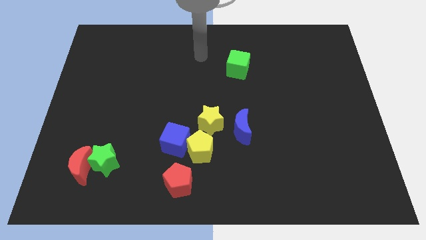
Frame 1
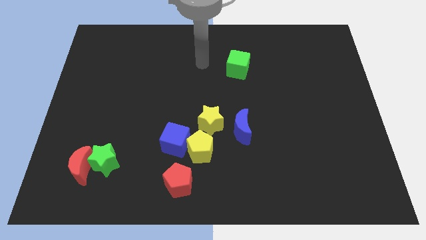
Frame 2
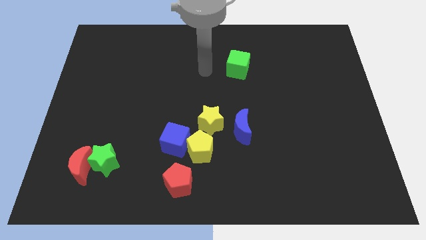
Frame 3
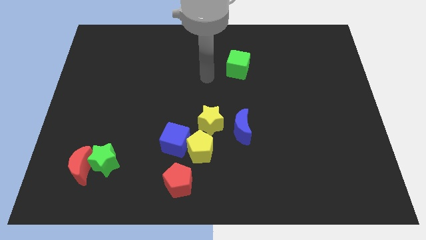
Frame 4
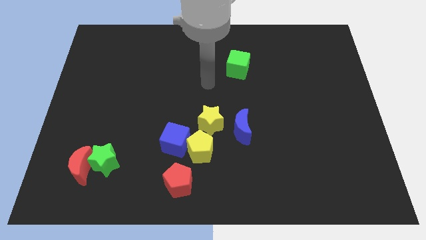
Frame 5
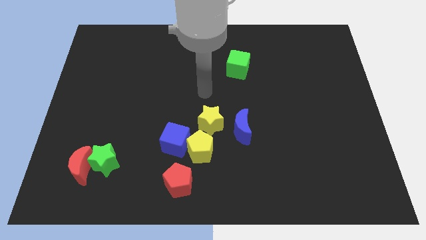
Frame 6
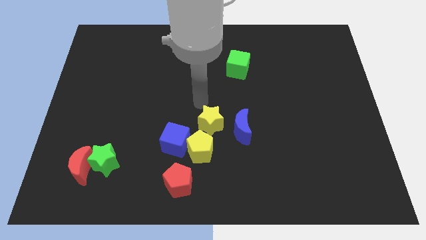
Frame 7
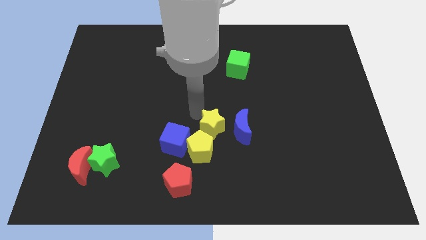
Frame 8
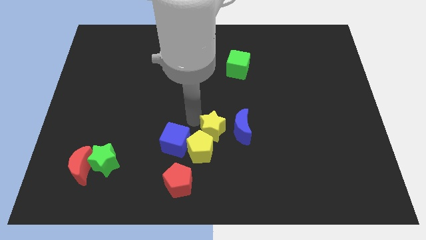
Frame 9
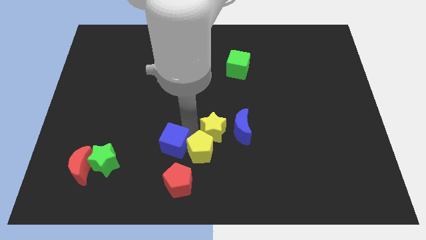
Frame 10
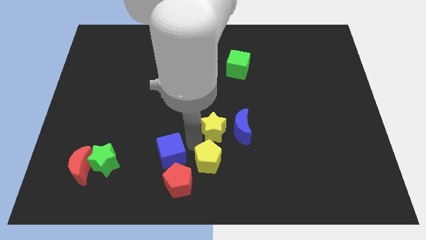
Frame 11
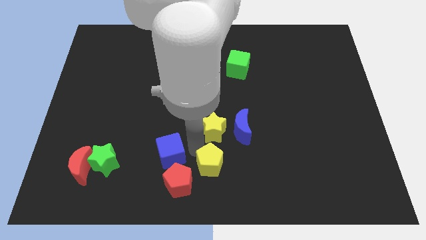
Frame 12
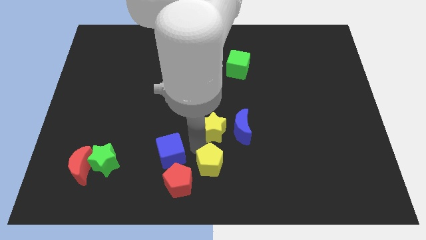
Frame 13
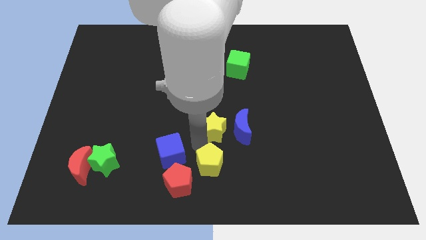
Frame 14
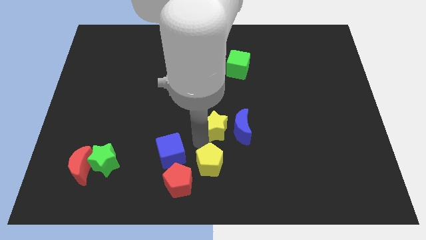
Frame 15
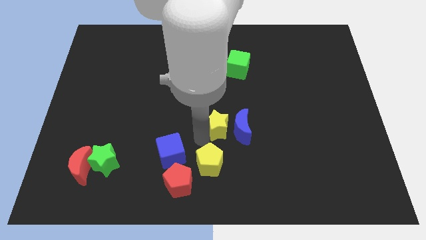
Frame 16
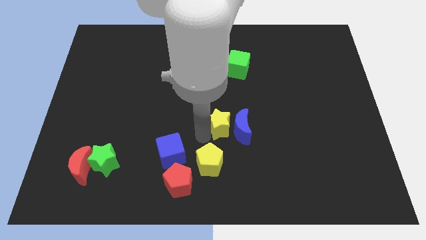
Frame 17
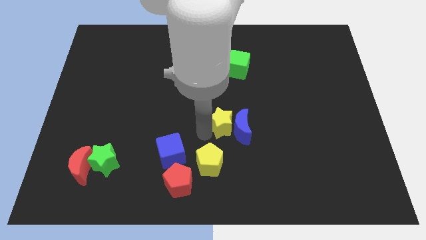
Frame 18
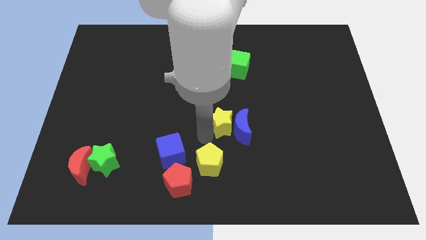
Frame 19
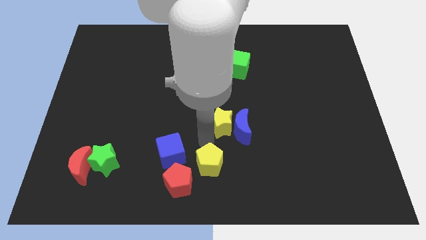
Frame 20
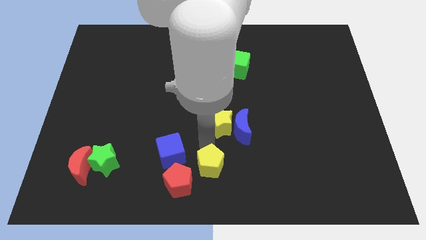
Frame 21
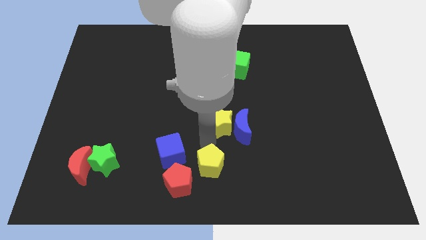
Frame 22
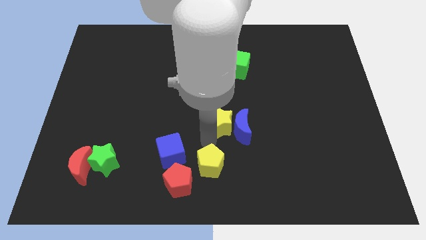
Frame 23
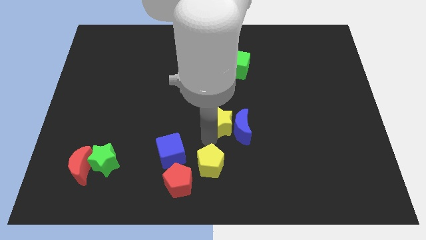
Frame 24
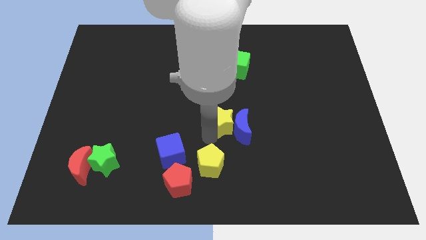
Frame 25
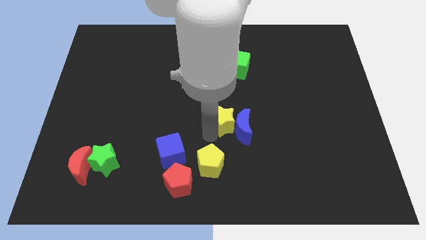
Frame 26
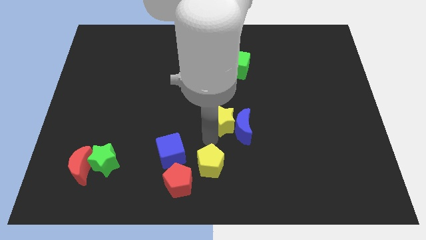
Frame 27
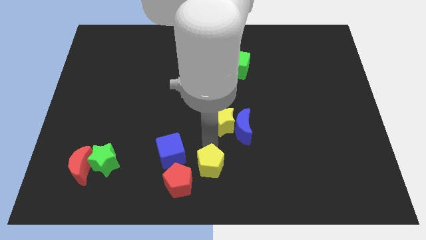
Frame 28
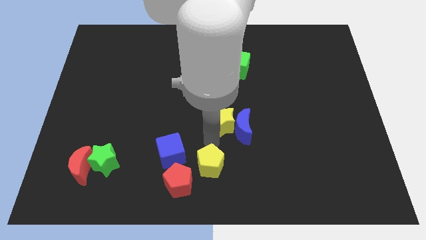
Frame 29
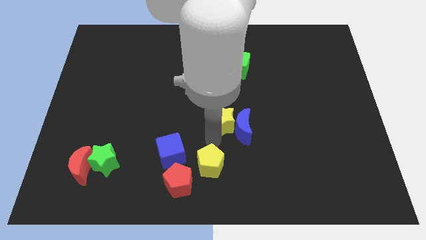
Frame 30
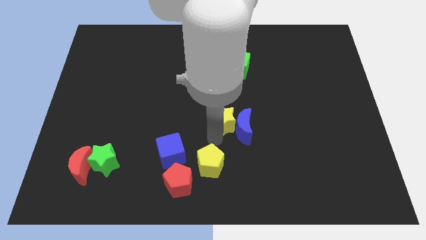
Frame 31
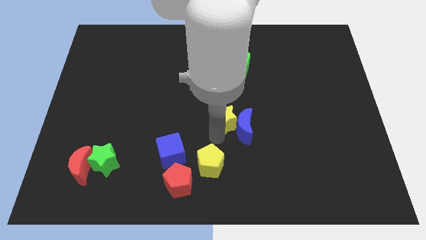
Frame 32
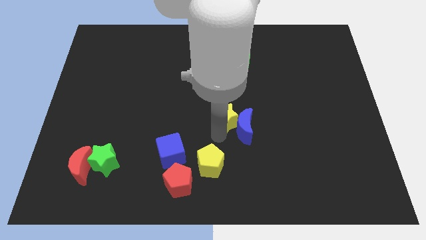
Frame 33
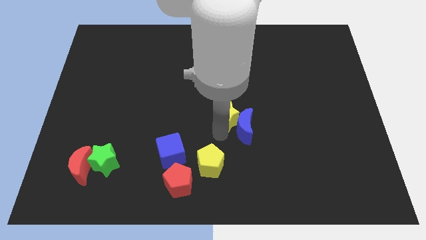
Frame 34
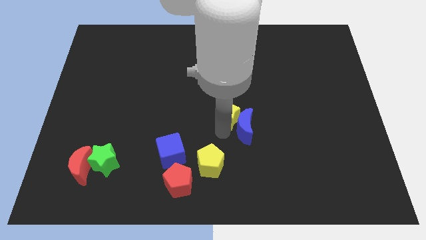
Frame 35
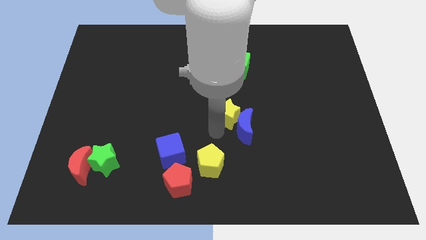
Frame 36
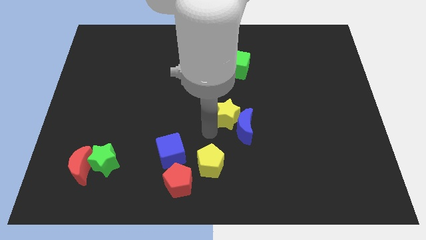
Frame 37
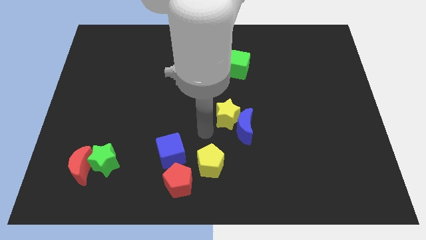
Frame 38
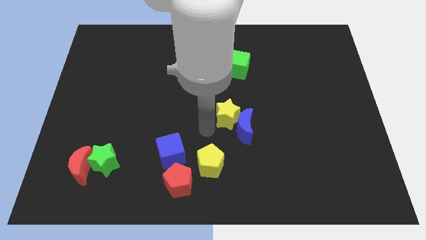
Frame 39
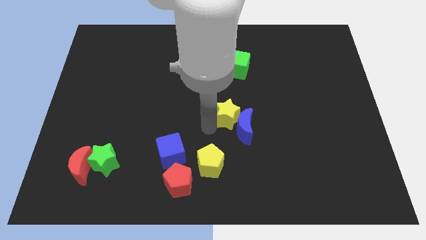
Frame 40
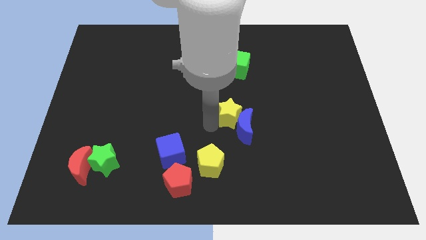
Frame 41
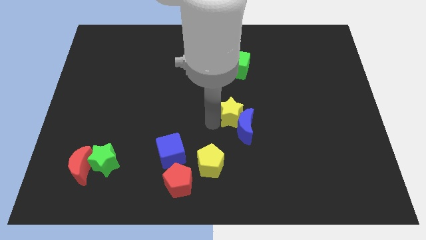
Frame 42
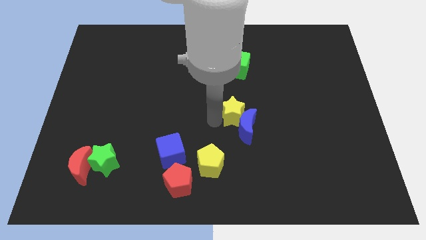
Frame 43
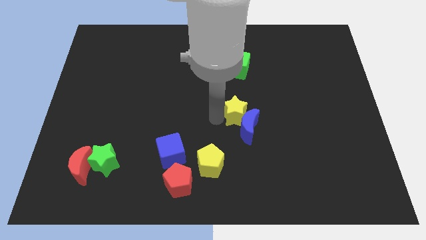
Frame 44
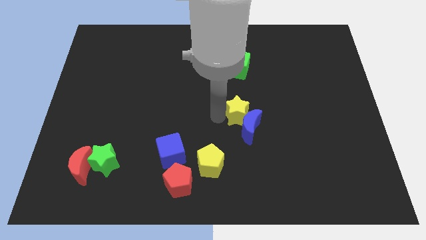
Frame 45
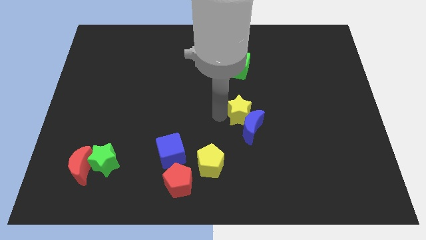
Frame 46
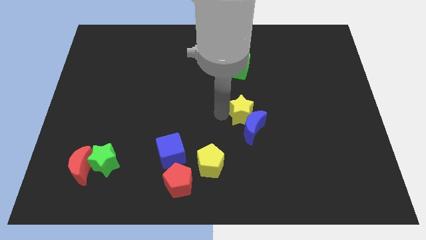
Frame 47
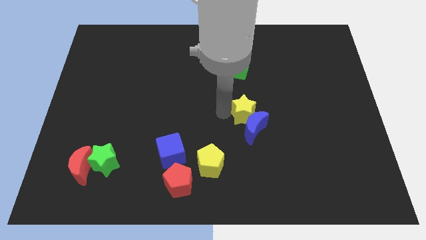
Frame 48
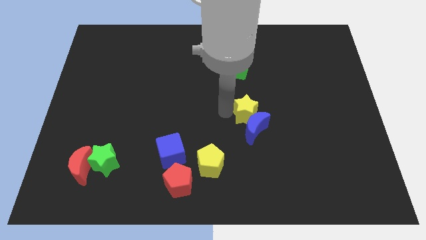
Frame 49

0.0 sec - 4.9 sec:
slightly slide the yellow star up and right diagonally

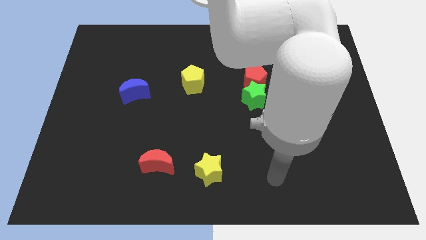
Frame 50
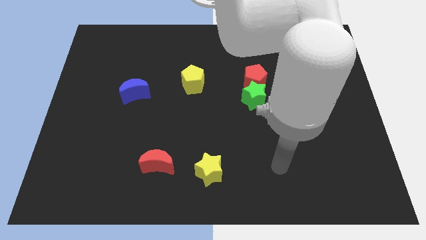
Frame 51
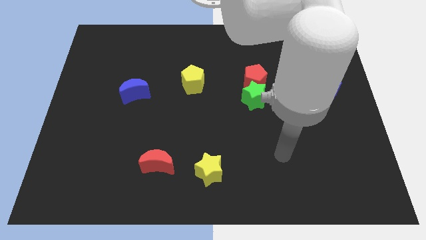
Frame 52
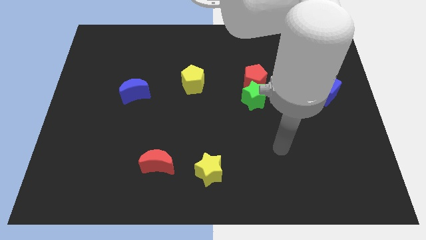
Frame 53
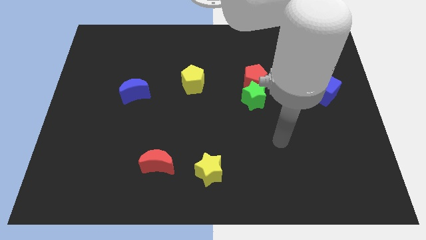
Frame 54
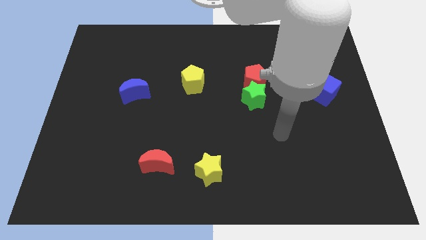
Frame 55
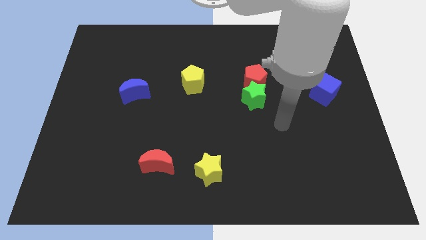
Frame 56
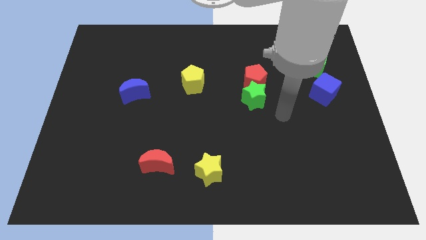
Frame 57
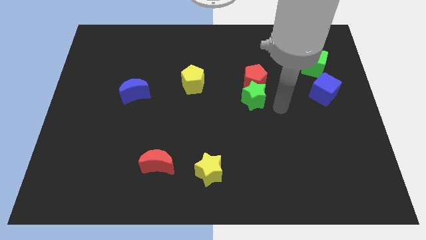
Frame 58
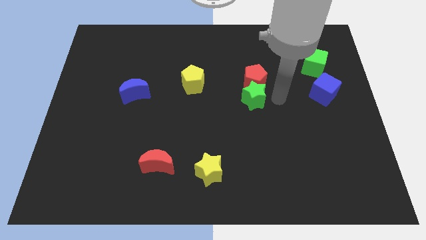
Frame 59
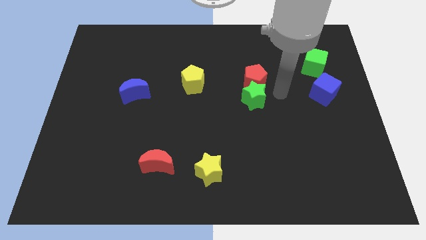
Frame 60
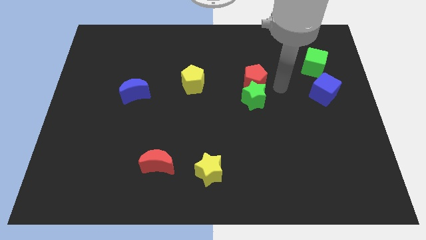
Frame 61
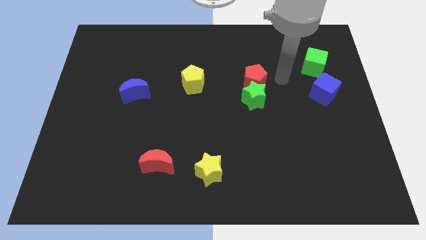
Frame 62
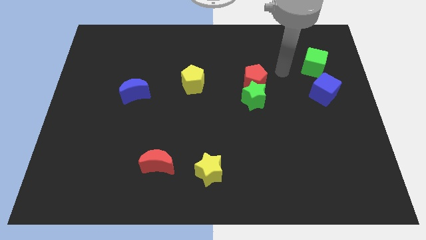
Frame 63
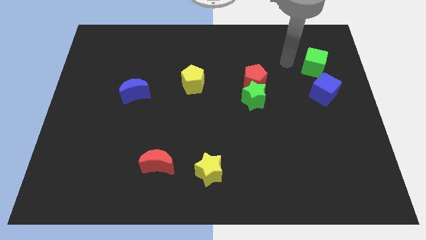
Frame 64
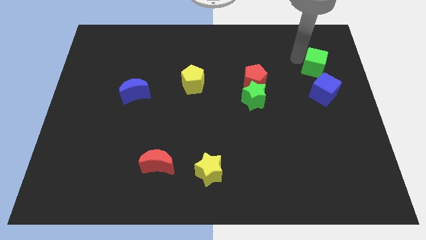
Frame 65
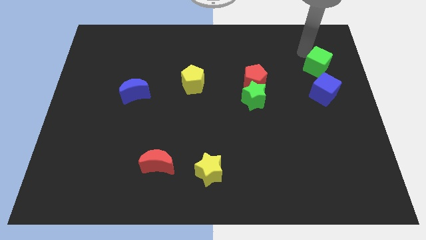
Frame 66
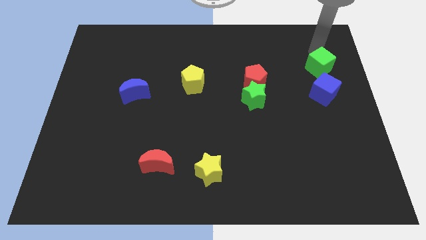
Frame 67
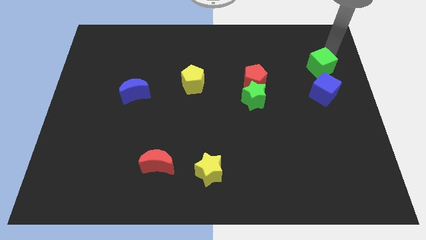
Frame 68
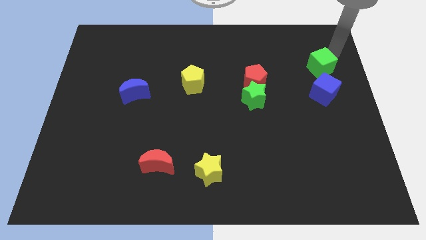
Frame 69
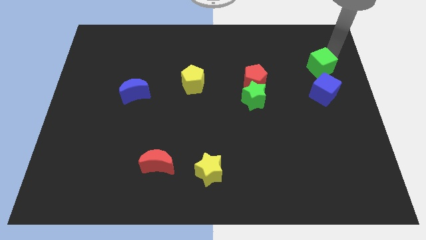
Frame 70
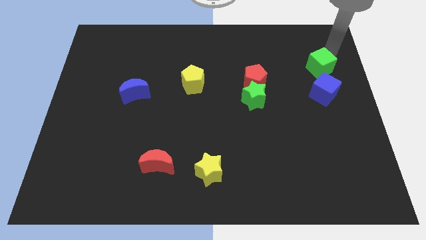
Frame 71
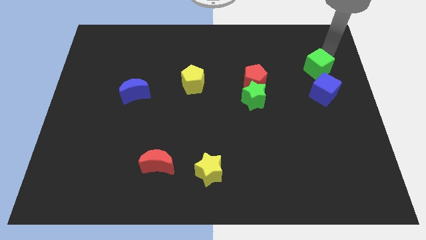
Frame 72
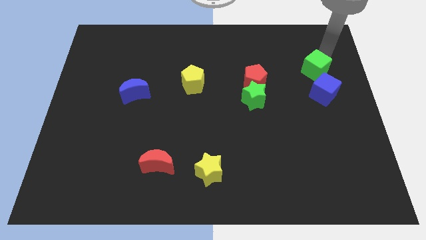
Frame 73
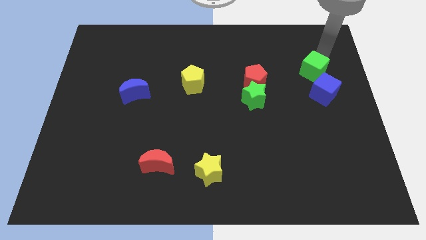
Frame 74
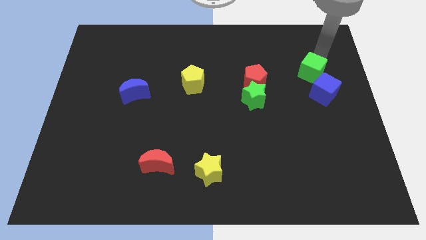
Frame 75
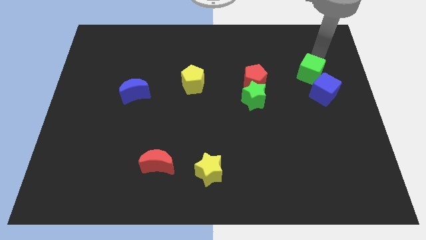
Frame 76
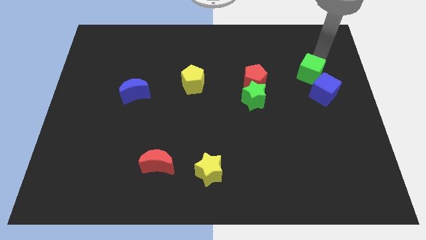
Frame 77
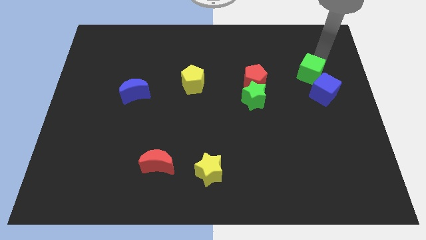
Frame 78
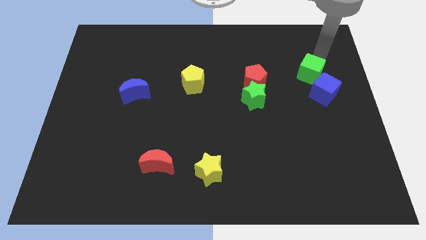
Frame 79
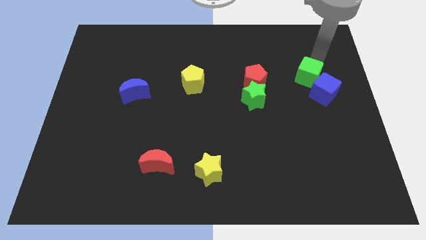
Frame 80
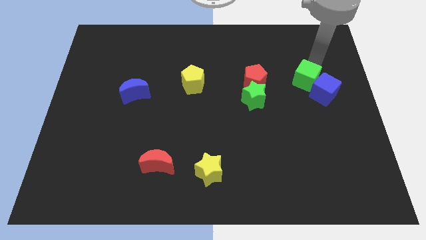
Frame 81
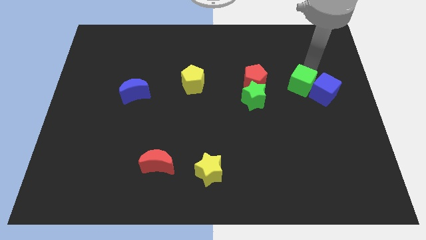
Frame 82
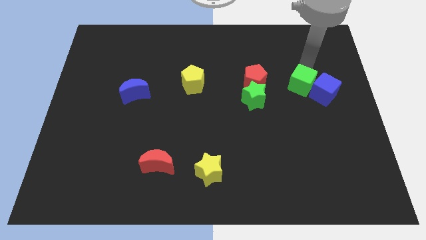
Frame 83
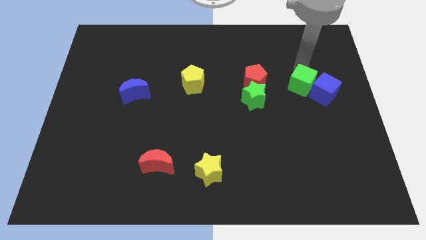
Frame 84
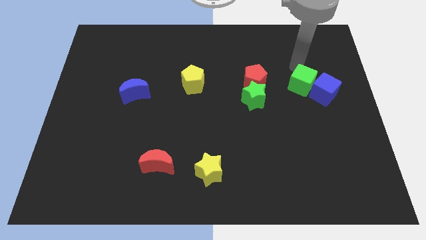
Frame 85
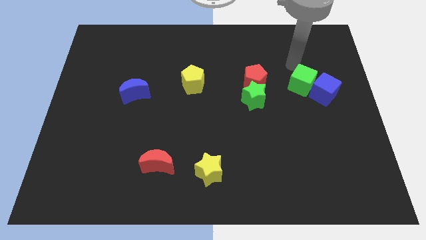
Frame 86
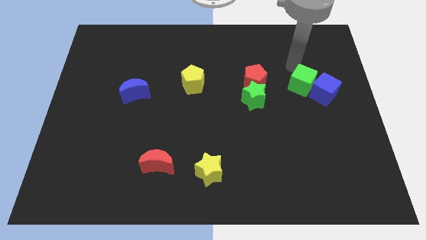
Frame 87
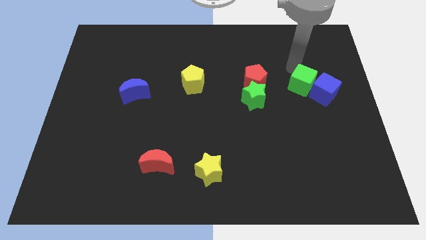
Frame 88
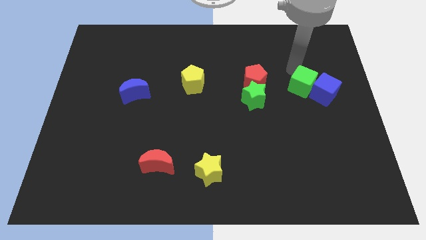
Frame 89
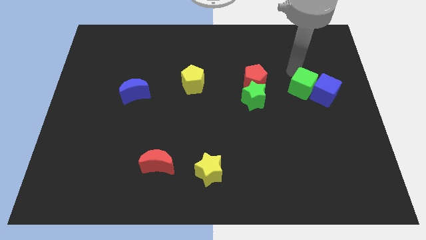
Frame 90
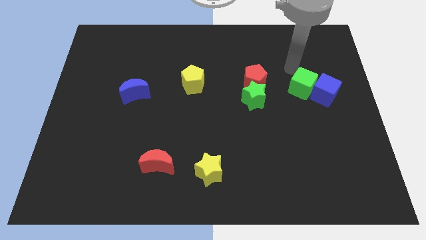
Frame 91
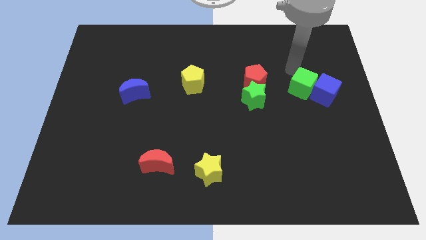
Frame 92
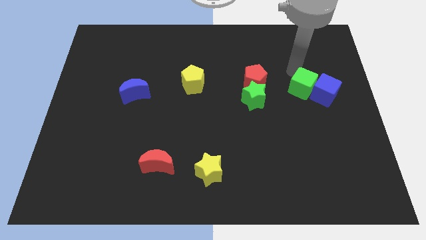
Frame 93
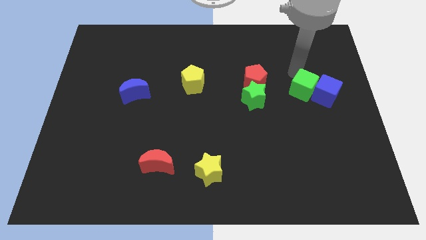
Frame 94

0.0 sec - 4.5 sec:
slightly push the green cube down
